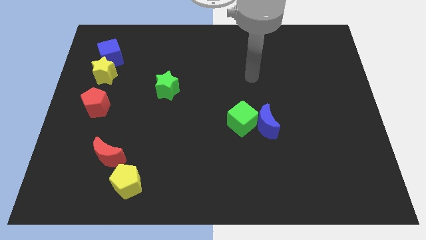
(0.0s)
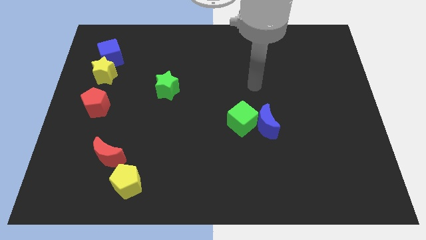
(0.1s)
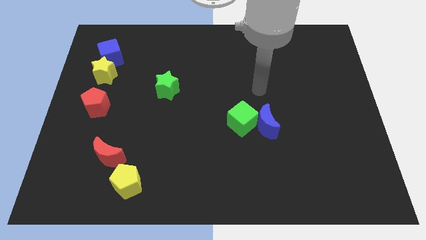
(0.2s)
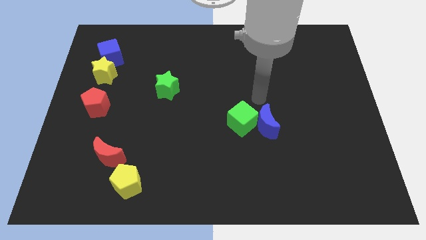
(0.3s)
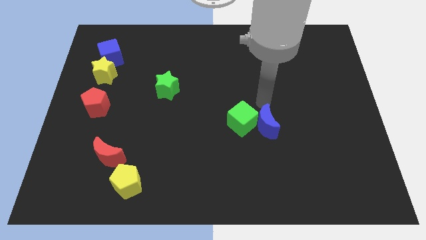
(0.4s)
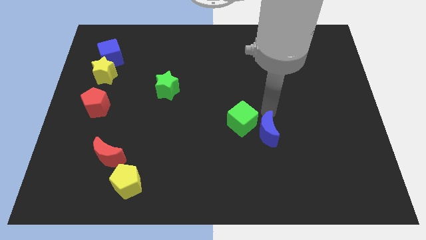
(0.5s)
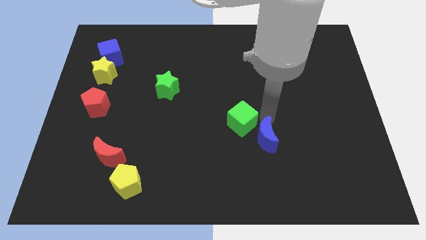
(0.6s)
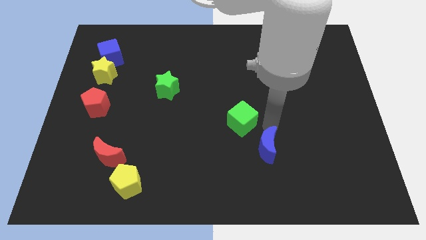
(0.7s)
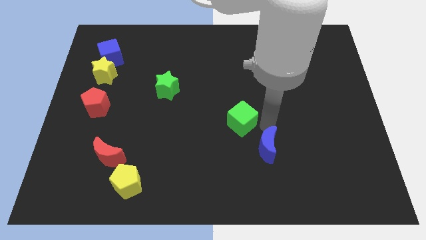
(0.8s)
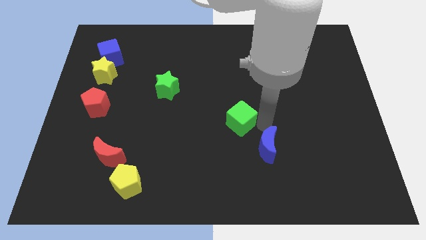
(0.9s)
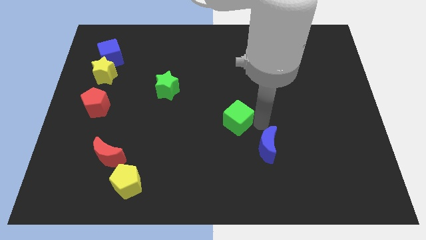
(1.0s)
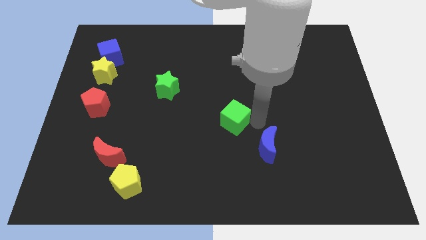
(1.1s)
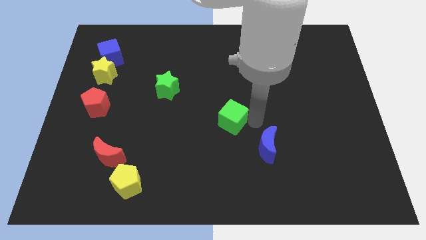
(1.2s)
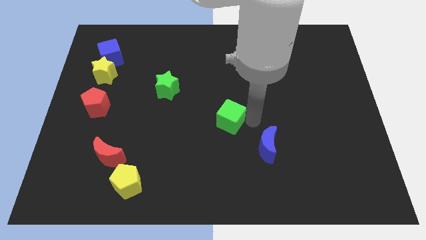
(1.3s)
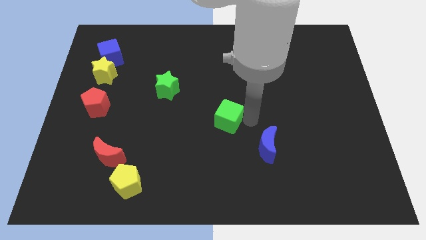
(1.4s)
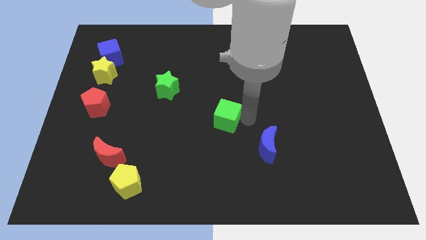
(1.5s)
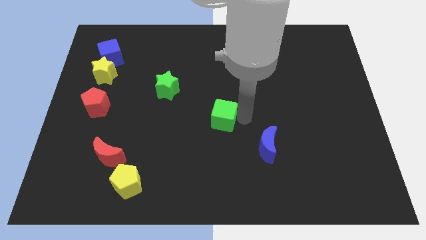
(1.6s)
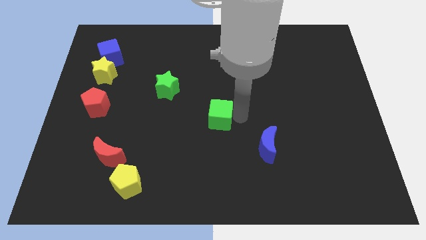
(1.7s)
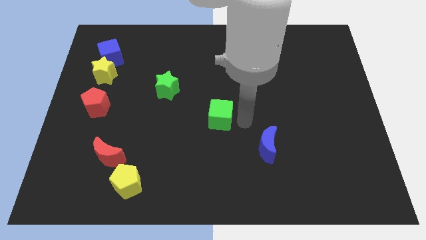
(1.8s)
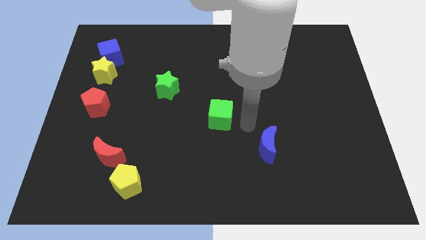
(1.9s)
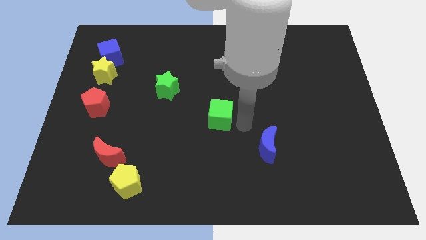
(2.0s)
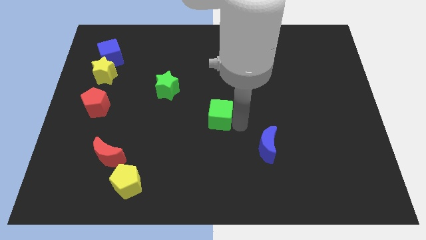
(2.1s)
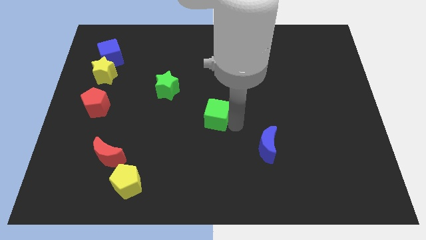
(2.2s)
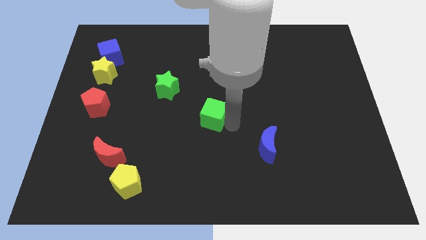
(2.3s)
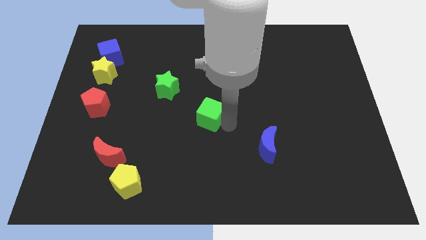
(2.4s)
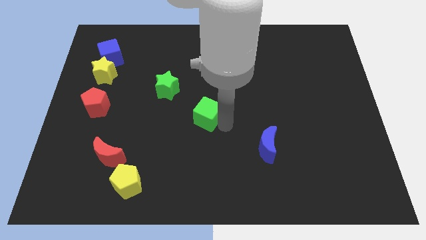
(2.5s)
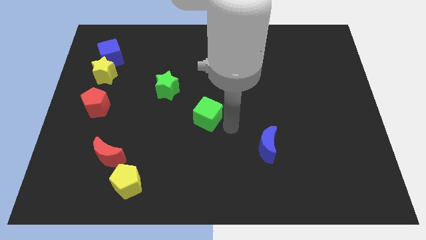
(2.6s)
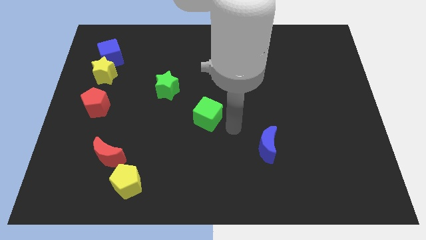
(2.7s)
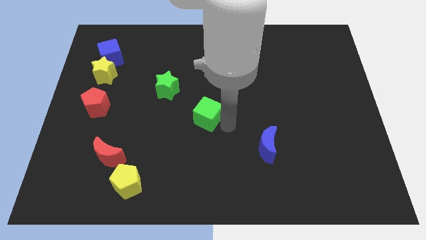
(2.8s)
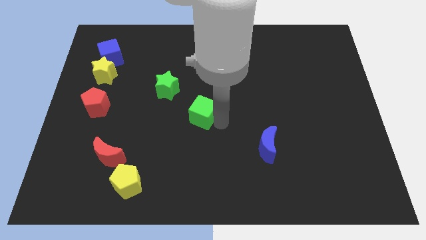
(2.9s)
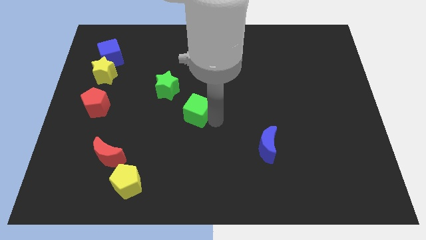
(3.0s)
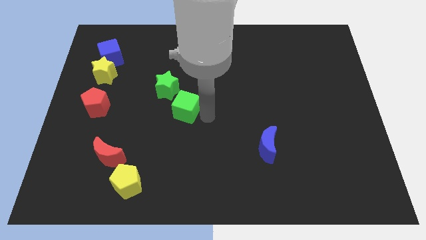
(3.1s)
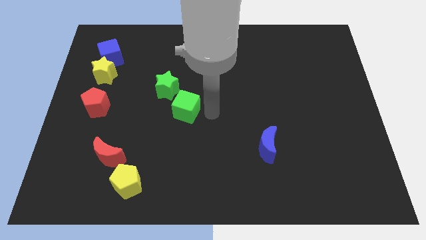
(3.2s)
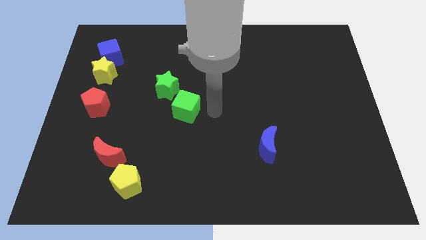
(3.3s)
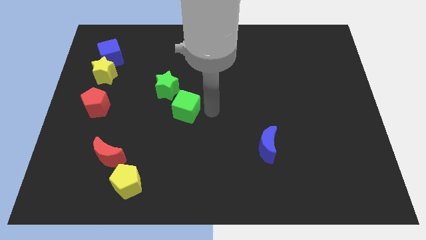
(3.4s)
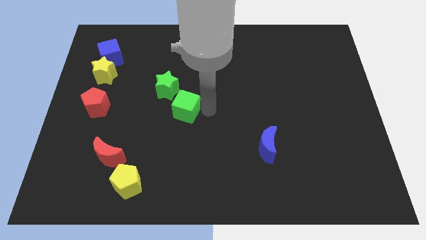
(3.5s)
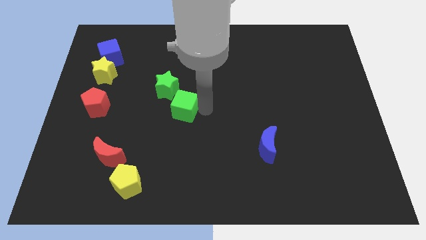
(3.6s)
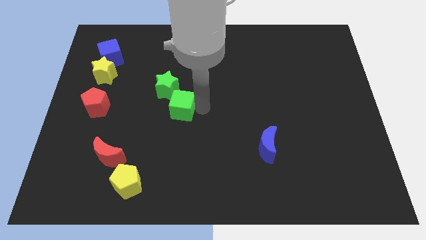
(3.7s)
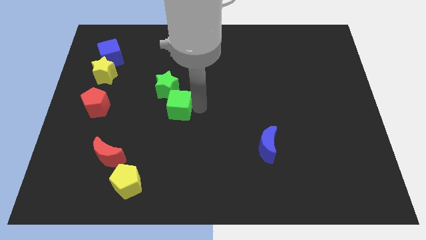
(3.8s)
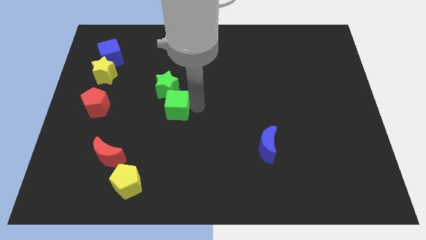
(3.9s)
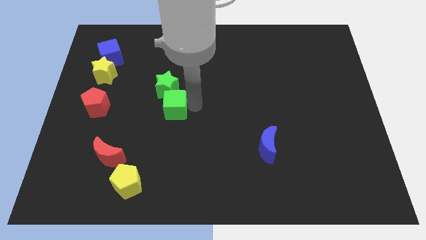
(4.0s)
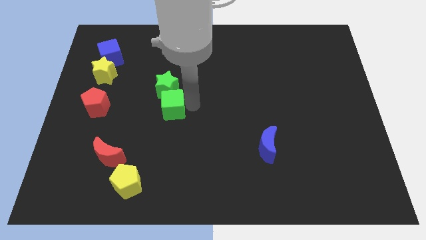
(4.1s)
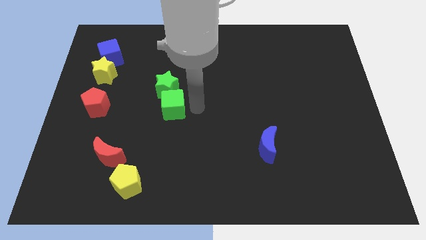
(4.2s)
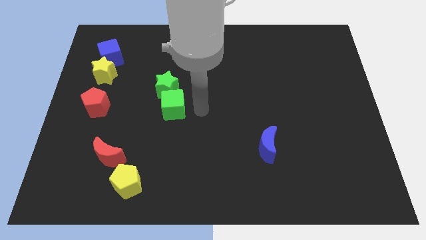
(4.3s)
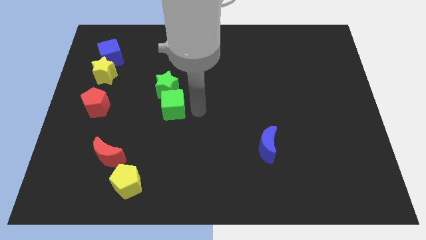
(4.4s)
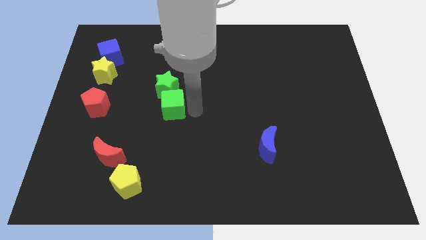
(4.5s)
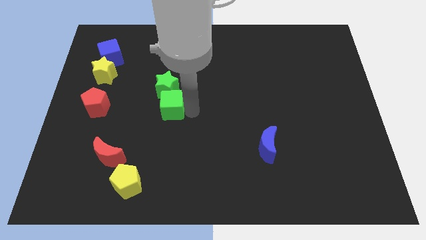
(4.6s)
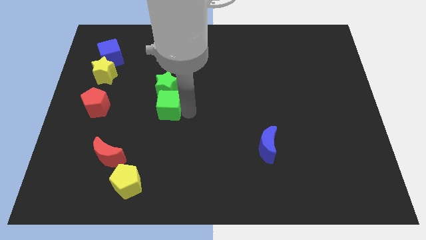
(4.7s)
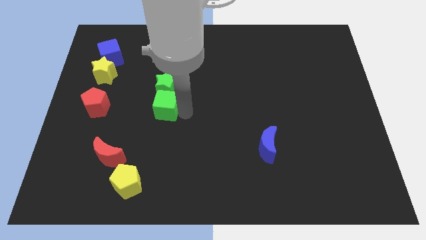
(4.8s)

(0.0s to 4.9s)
move the green cube to the bottom left side of the green star

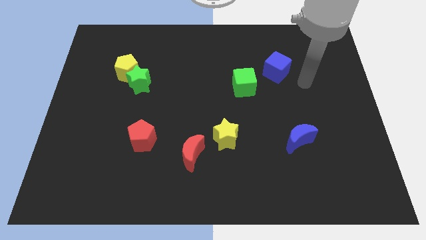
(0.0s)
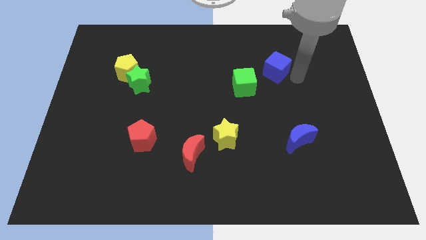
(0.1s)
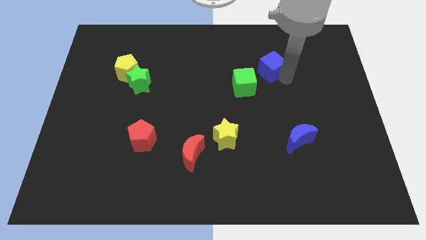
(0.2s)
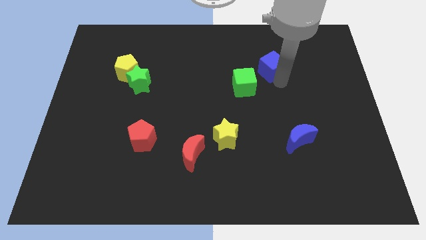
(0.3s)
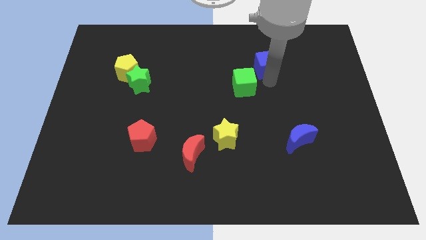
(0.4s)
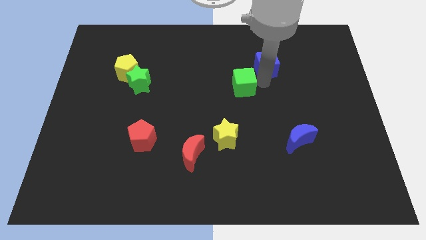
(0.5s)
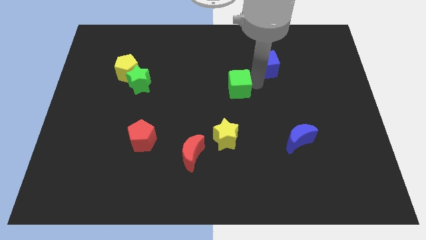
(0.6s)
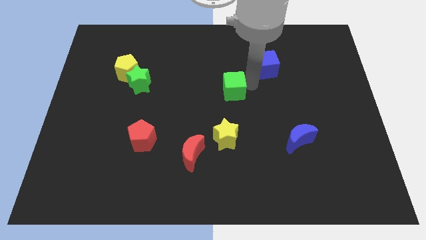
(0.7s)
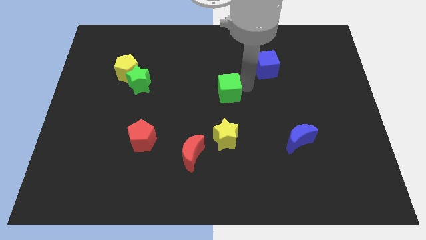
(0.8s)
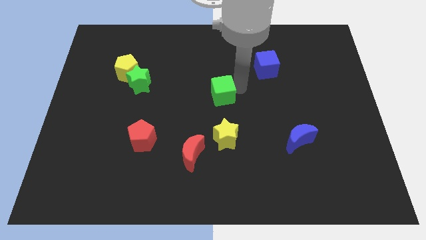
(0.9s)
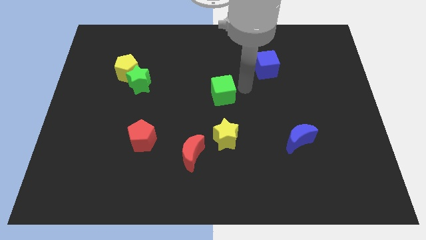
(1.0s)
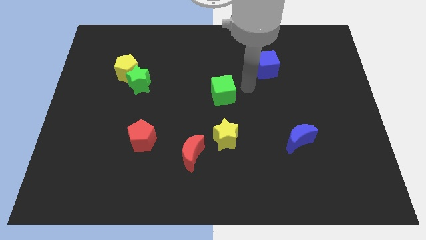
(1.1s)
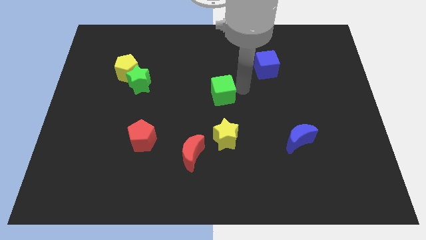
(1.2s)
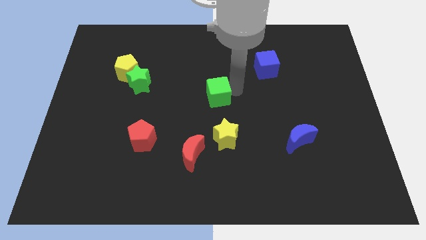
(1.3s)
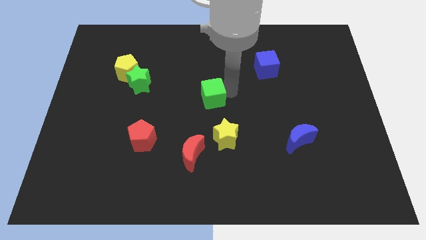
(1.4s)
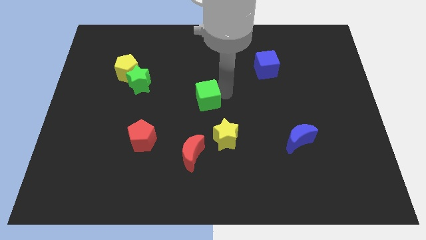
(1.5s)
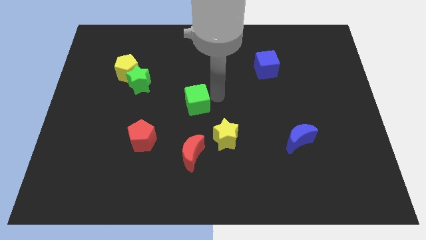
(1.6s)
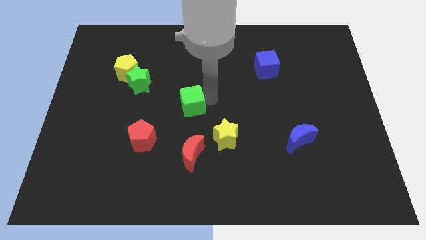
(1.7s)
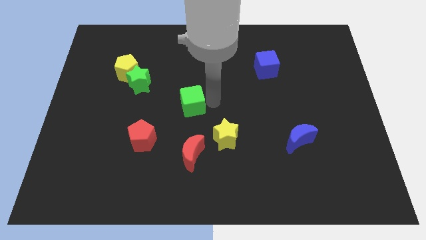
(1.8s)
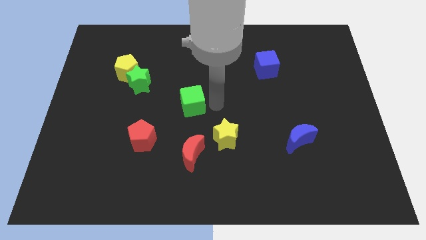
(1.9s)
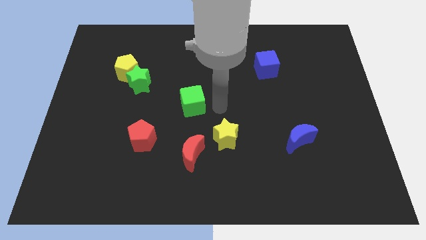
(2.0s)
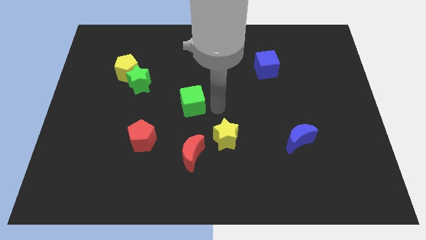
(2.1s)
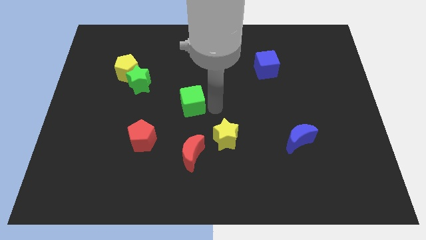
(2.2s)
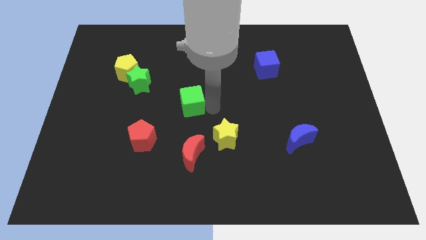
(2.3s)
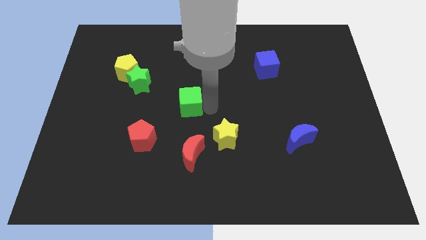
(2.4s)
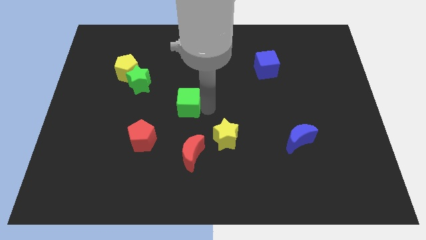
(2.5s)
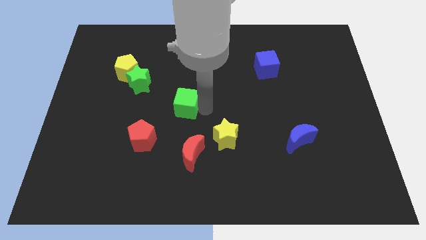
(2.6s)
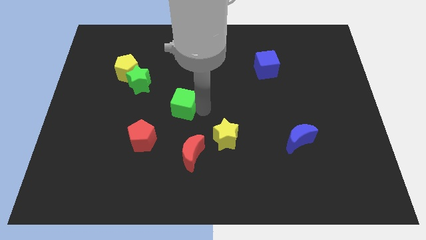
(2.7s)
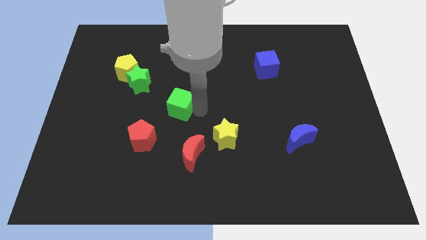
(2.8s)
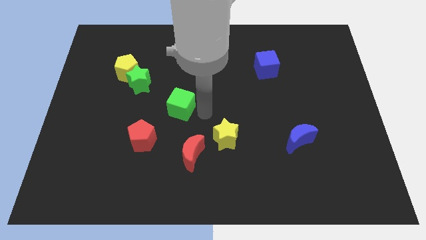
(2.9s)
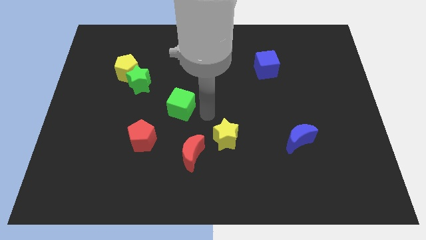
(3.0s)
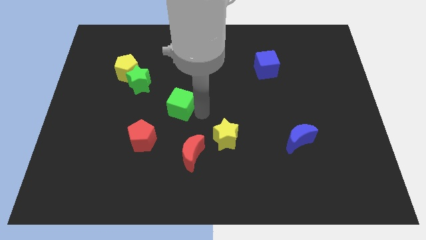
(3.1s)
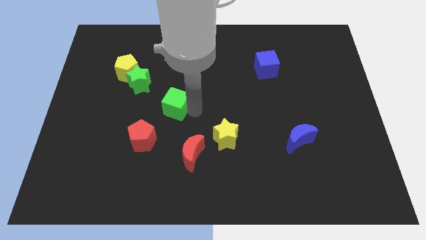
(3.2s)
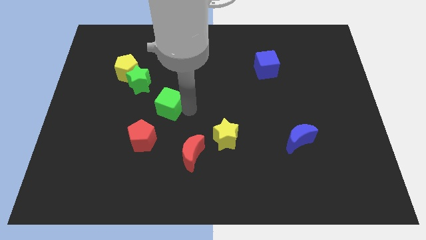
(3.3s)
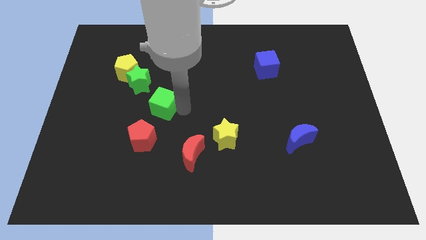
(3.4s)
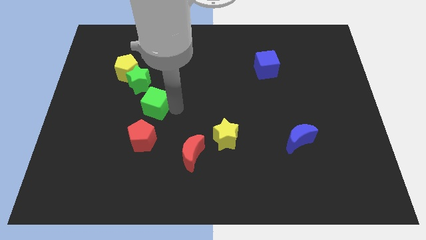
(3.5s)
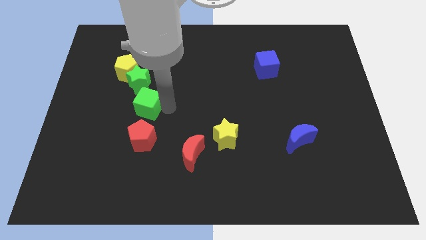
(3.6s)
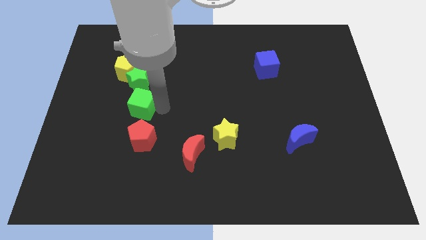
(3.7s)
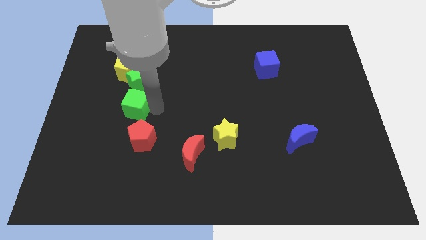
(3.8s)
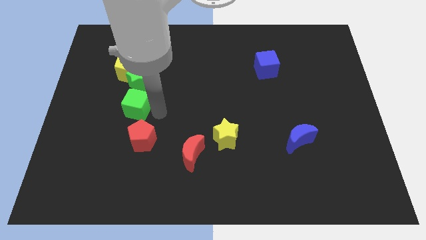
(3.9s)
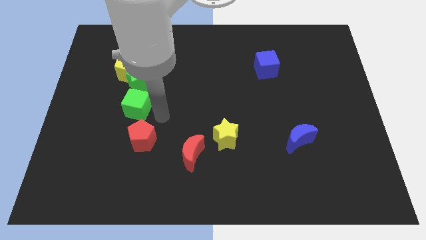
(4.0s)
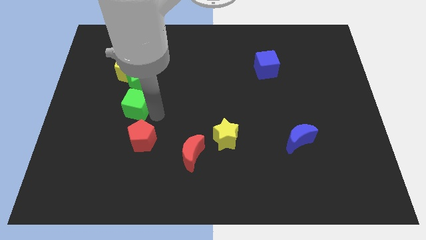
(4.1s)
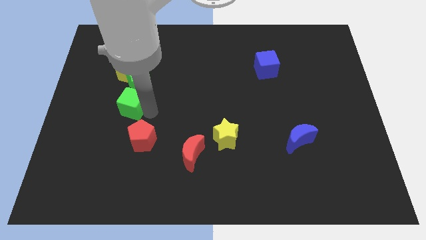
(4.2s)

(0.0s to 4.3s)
slide the green cube diagonally down and to the left of the green star
